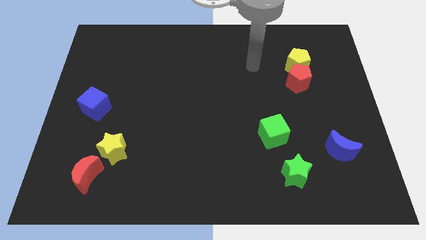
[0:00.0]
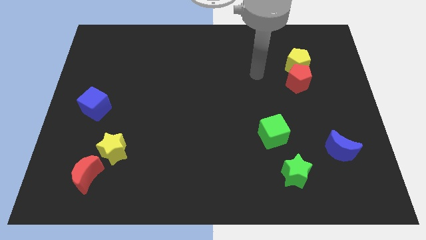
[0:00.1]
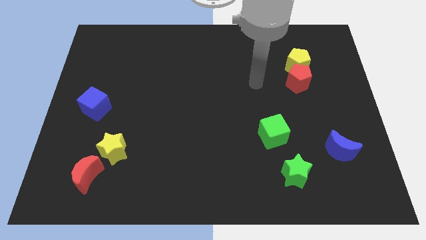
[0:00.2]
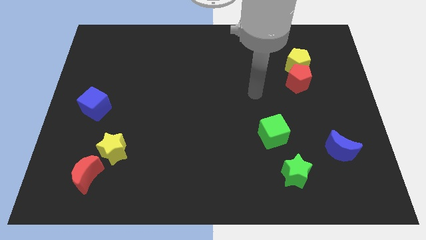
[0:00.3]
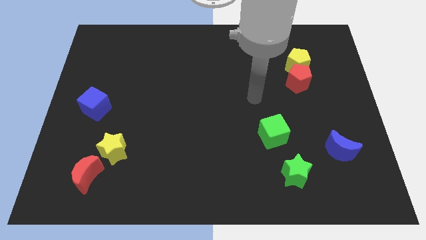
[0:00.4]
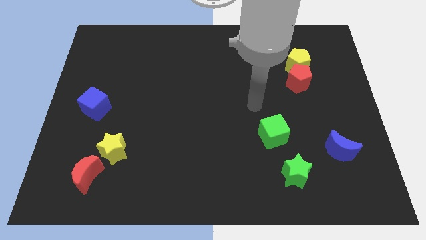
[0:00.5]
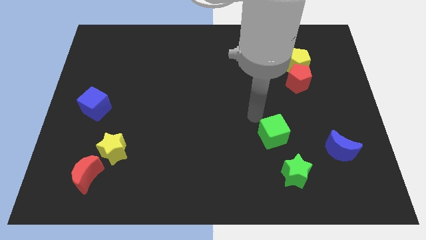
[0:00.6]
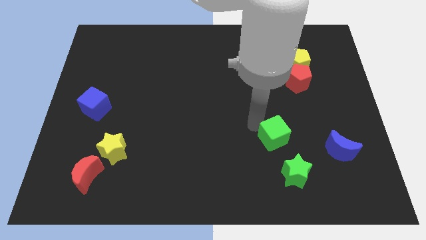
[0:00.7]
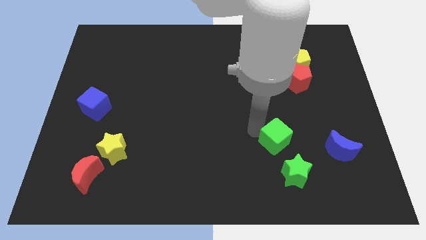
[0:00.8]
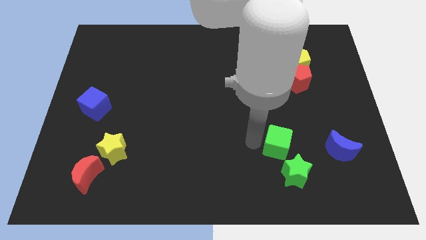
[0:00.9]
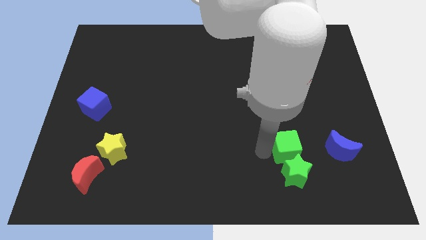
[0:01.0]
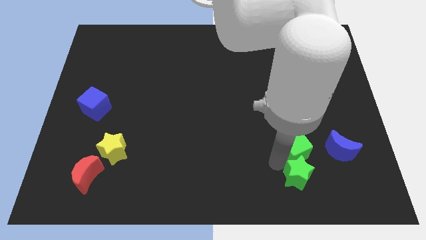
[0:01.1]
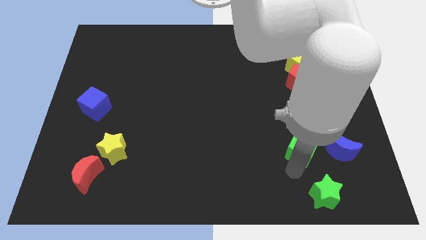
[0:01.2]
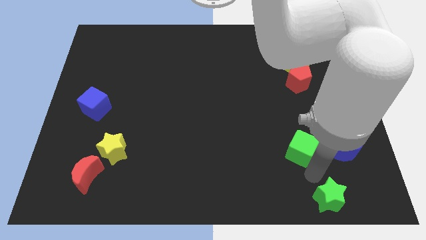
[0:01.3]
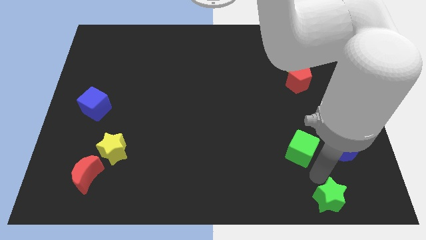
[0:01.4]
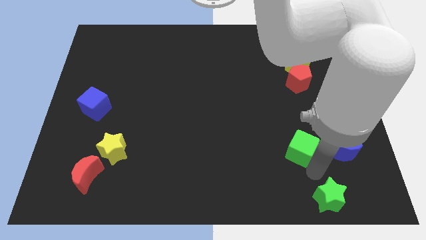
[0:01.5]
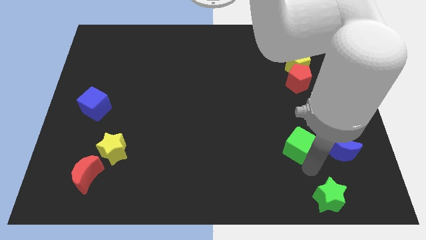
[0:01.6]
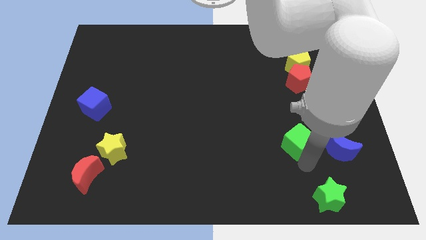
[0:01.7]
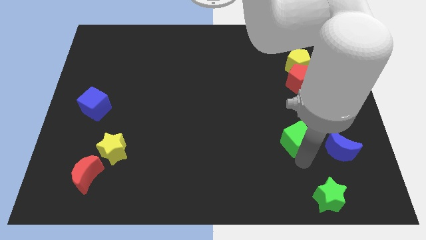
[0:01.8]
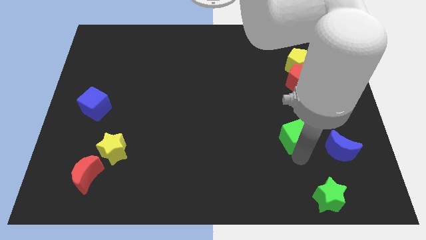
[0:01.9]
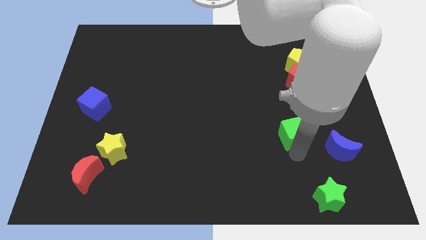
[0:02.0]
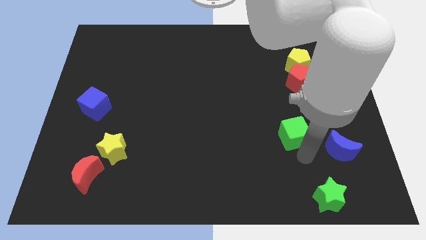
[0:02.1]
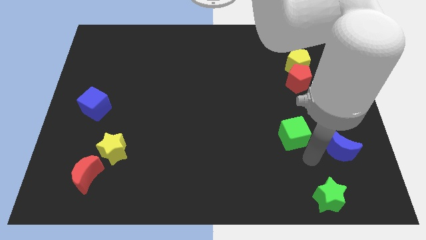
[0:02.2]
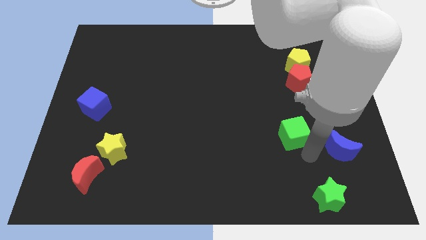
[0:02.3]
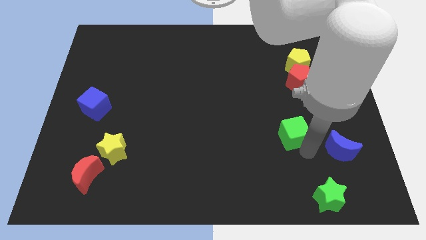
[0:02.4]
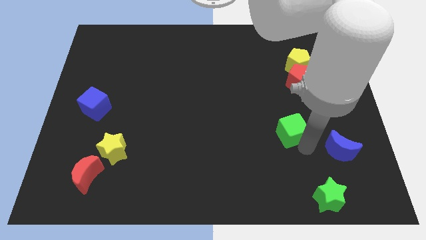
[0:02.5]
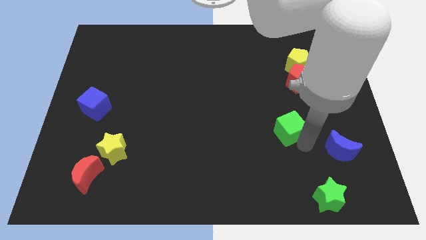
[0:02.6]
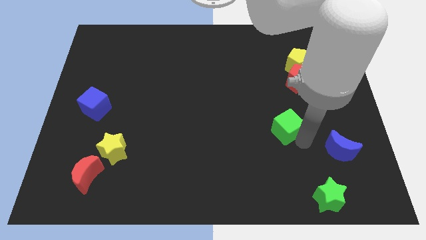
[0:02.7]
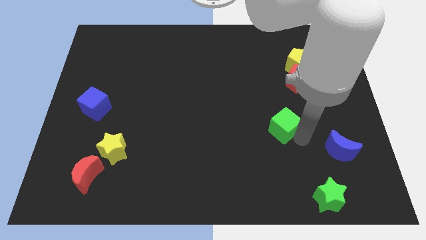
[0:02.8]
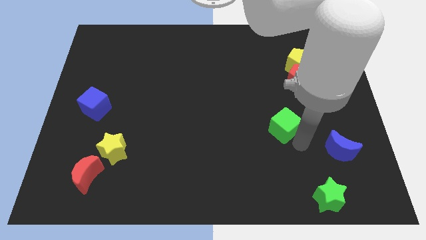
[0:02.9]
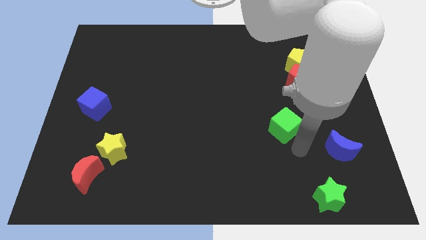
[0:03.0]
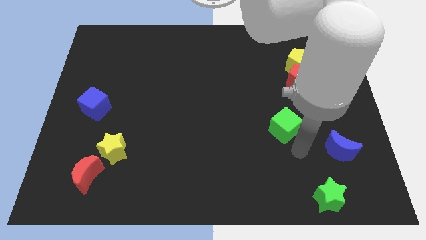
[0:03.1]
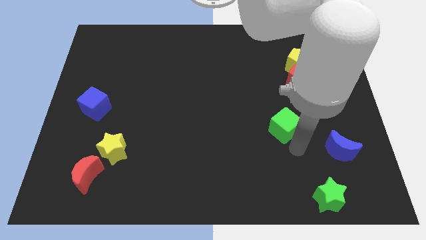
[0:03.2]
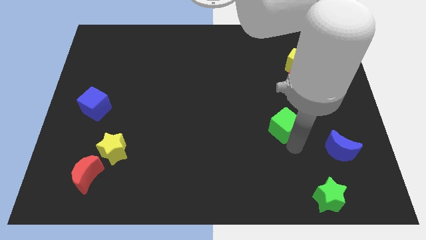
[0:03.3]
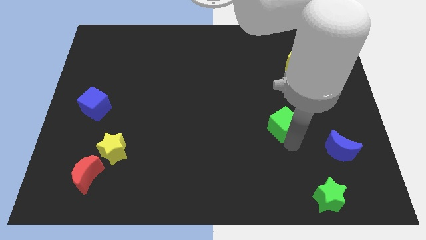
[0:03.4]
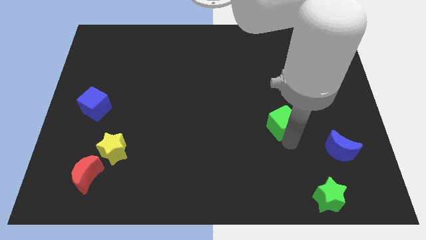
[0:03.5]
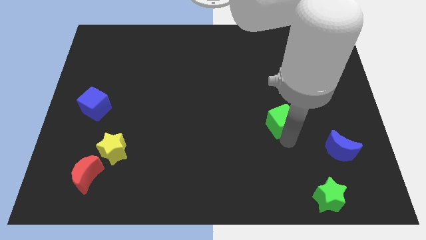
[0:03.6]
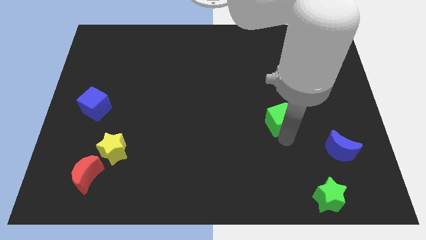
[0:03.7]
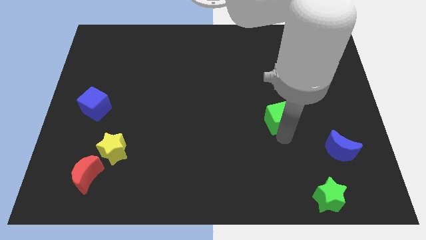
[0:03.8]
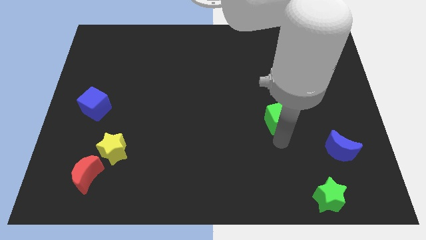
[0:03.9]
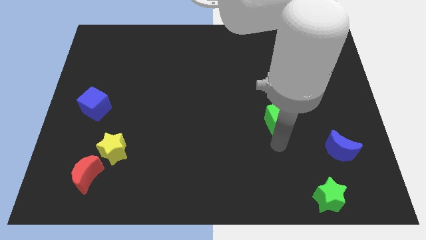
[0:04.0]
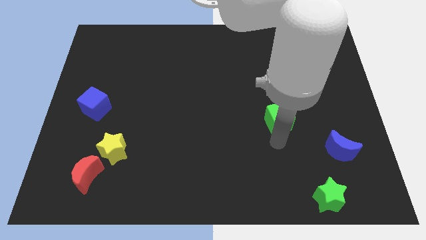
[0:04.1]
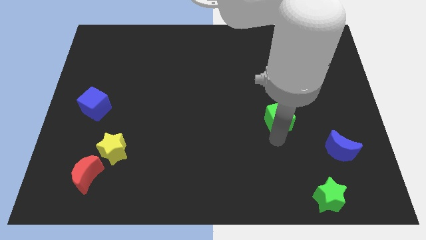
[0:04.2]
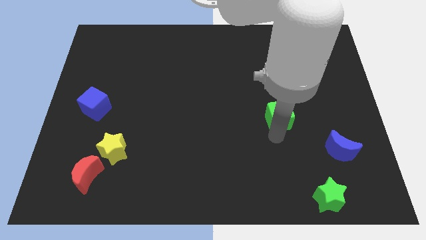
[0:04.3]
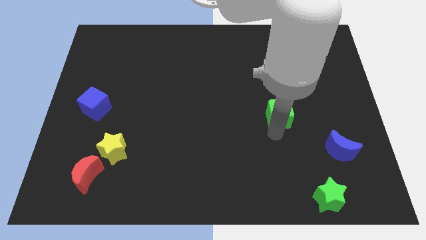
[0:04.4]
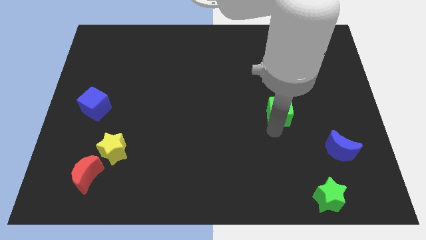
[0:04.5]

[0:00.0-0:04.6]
slide the green cube diagonally down and to the left of the red pentagon

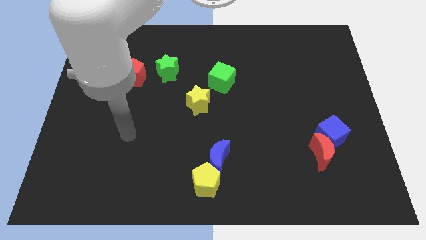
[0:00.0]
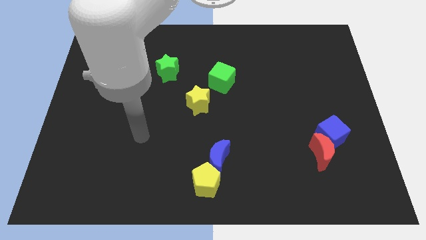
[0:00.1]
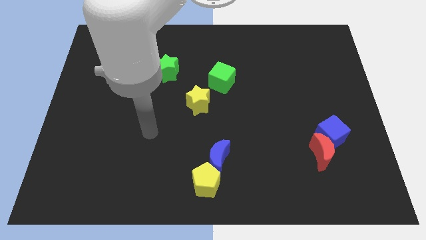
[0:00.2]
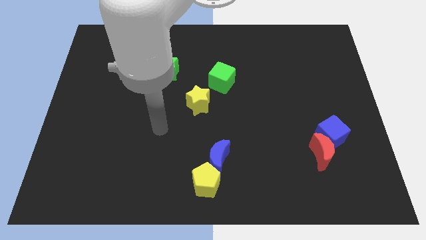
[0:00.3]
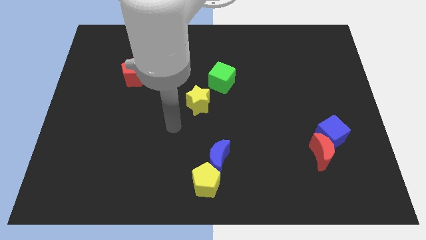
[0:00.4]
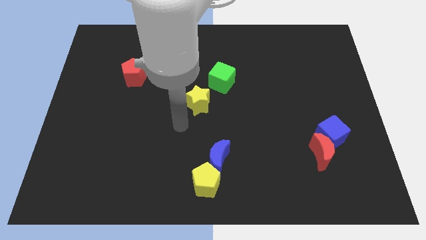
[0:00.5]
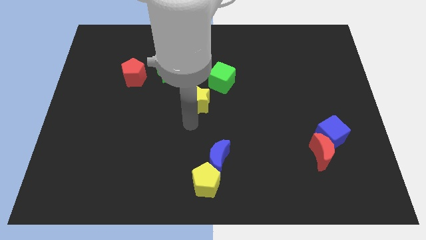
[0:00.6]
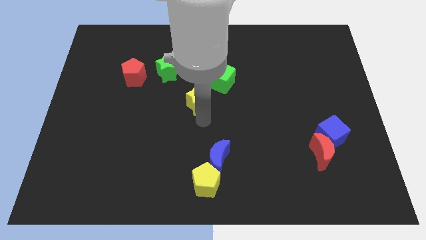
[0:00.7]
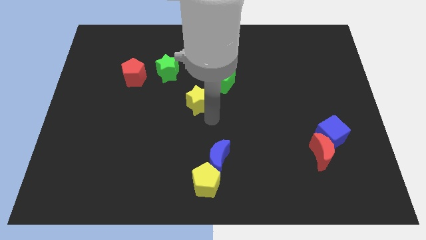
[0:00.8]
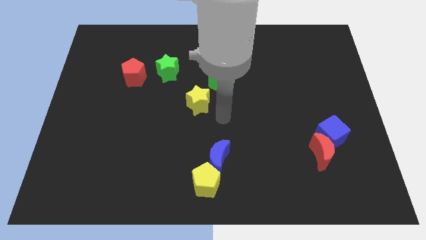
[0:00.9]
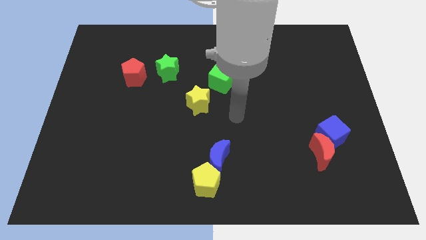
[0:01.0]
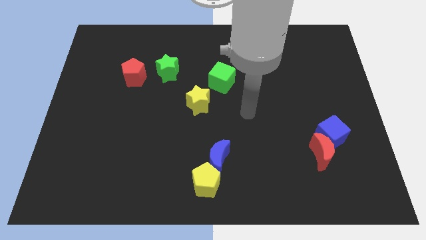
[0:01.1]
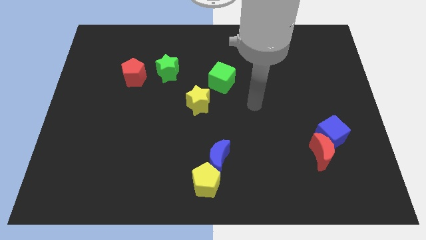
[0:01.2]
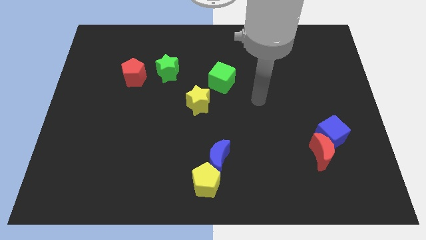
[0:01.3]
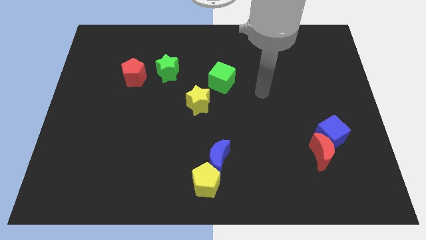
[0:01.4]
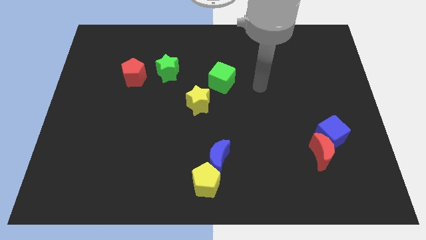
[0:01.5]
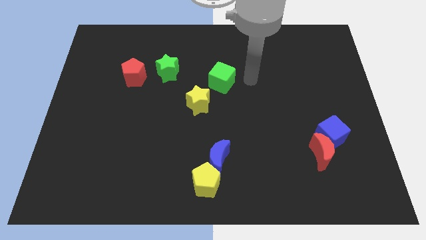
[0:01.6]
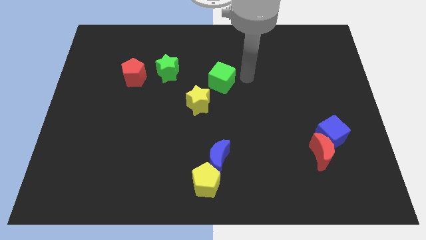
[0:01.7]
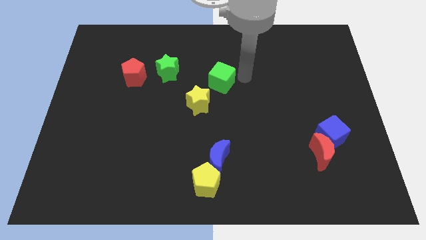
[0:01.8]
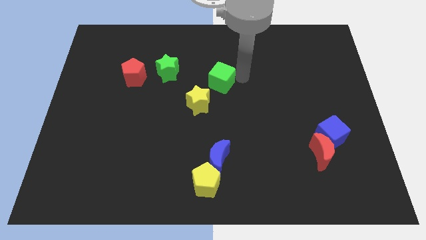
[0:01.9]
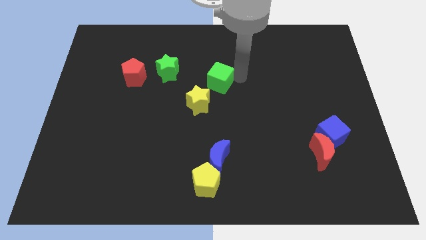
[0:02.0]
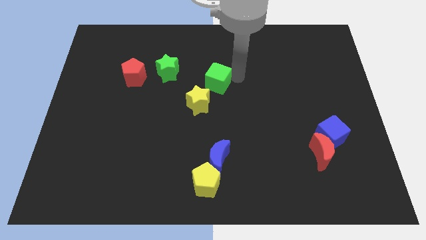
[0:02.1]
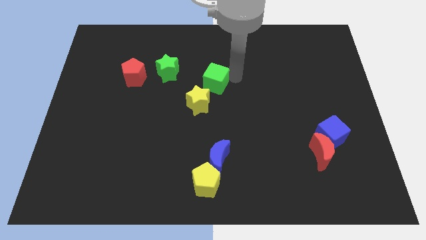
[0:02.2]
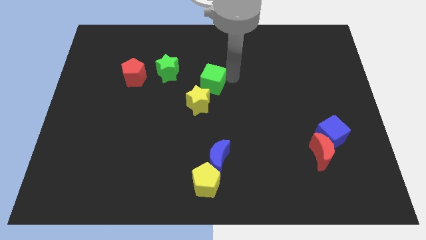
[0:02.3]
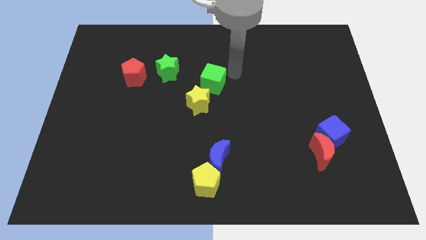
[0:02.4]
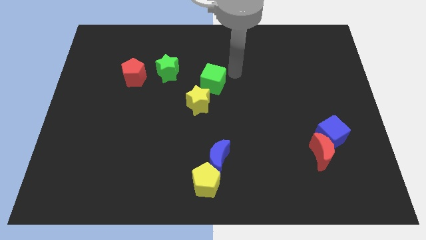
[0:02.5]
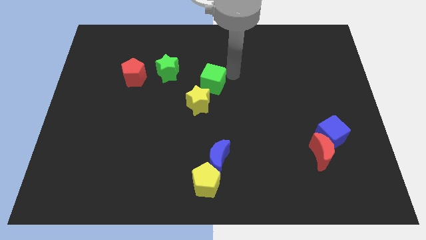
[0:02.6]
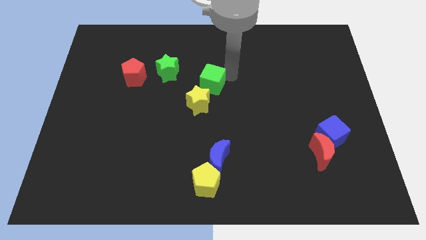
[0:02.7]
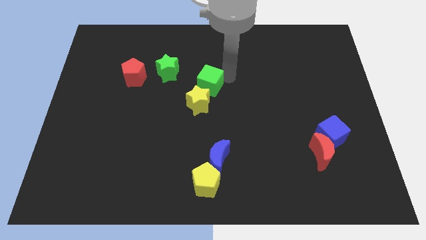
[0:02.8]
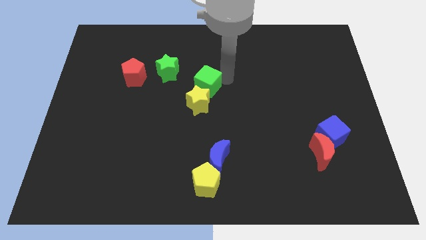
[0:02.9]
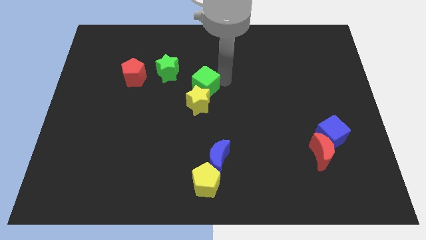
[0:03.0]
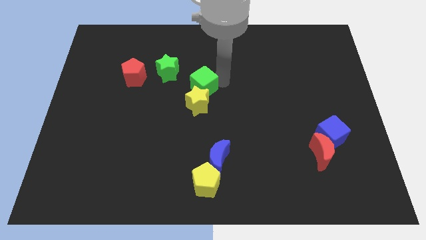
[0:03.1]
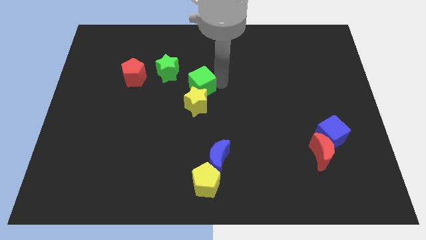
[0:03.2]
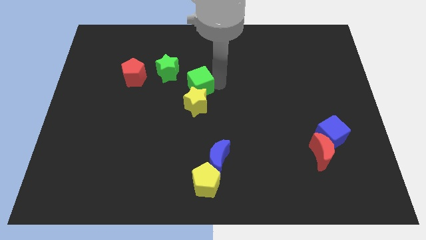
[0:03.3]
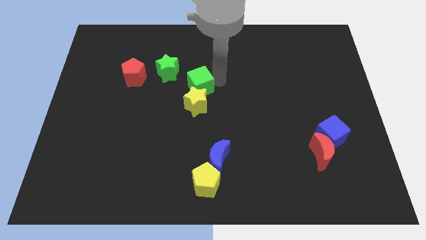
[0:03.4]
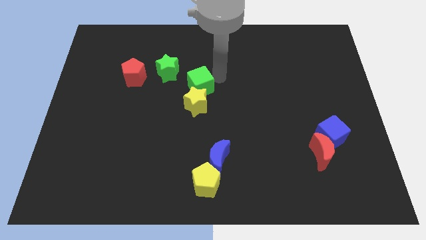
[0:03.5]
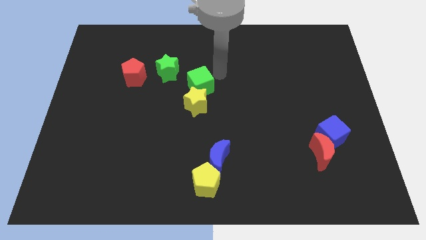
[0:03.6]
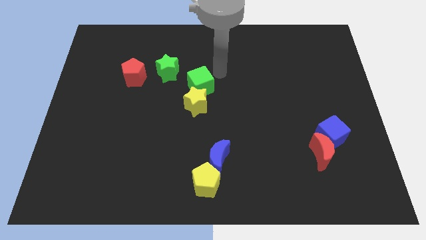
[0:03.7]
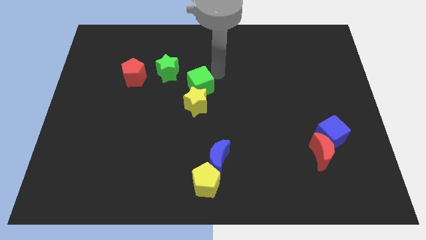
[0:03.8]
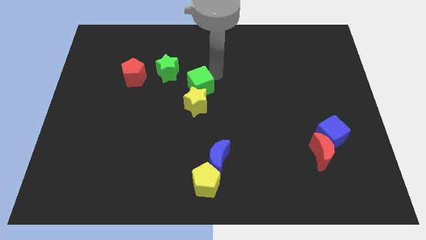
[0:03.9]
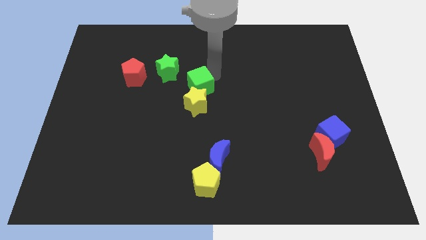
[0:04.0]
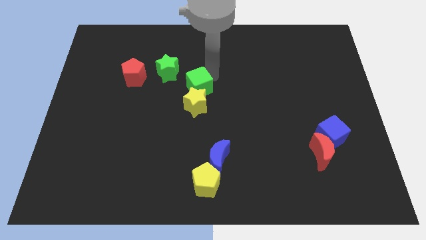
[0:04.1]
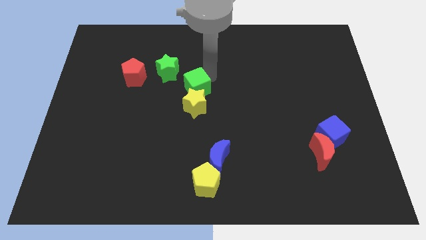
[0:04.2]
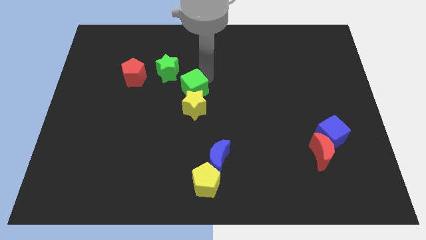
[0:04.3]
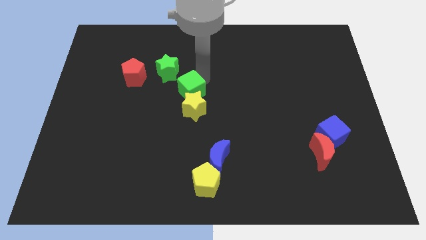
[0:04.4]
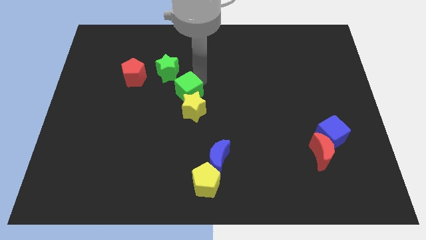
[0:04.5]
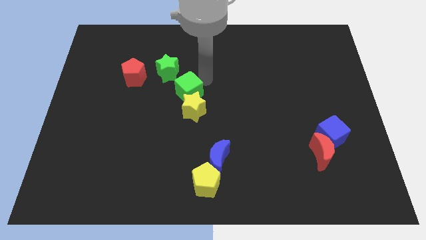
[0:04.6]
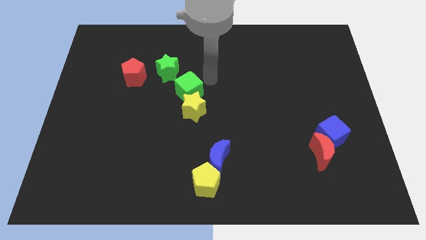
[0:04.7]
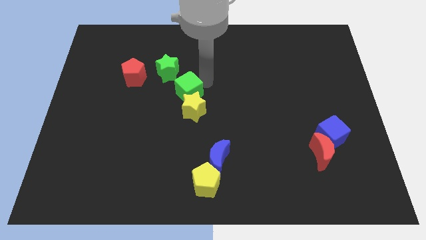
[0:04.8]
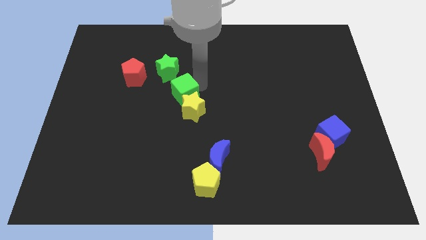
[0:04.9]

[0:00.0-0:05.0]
put the green cube to the bottom of the green star
